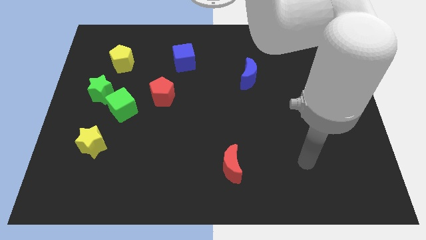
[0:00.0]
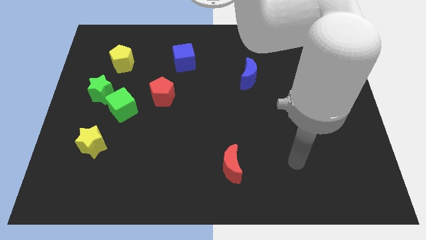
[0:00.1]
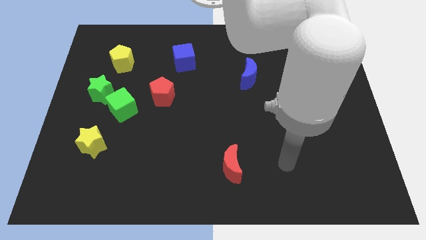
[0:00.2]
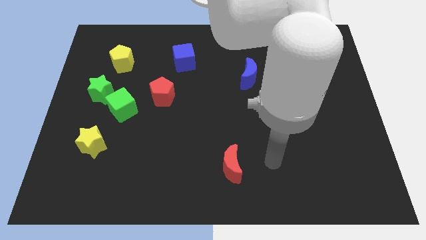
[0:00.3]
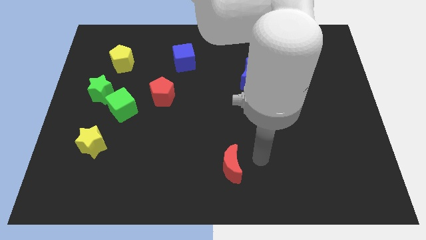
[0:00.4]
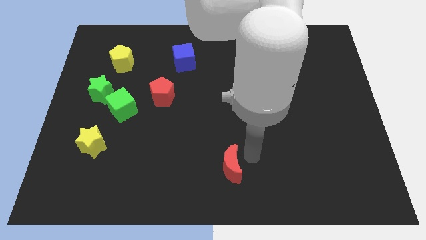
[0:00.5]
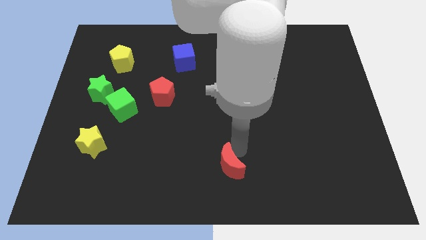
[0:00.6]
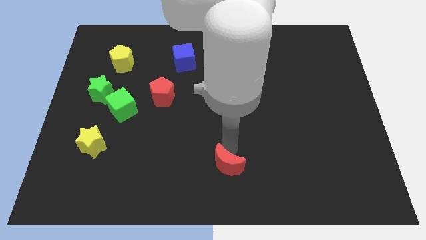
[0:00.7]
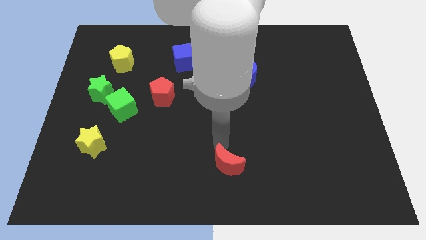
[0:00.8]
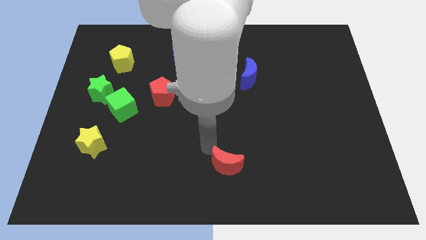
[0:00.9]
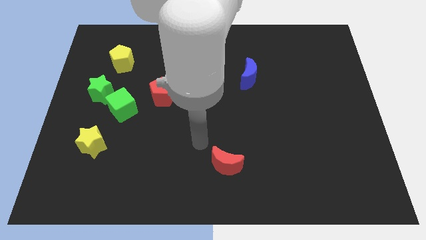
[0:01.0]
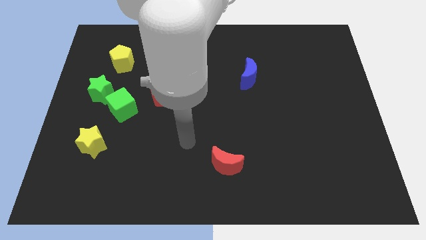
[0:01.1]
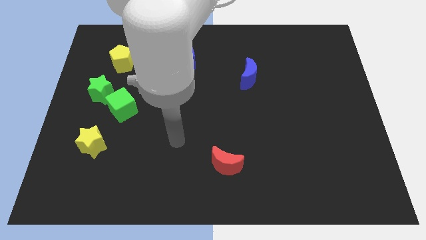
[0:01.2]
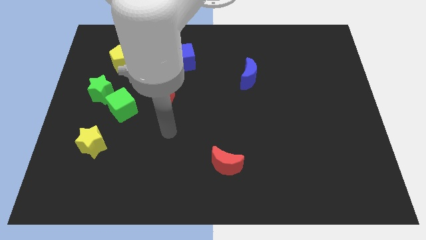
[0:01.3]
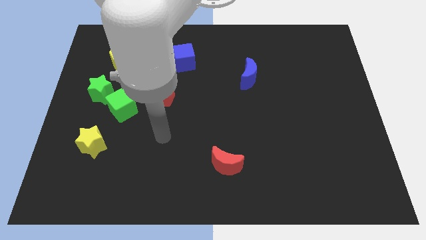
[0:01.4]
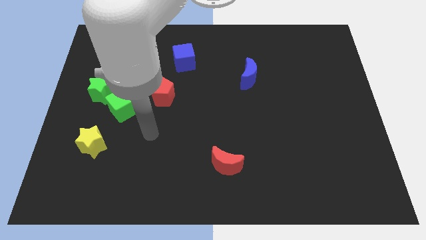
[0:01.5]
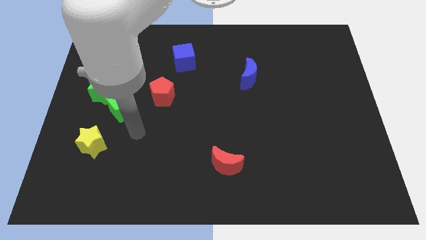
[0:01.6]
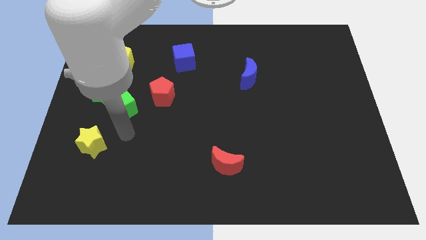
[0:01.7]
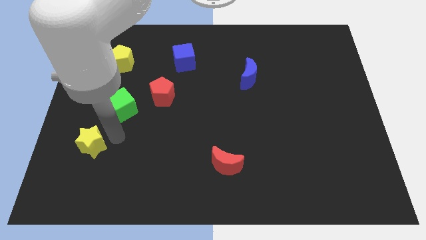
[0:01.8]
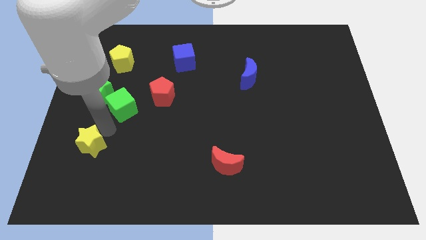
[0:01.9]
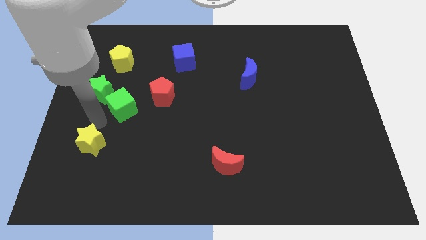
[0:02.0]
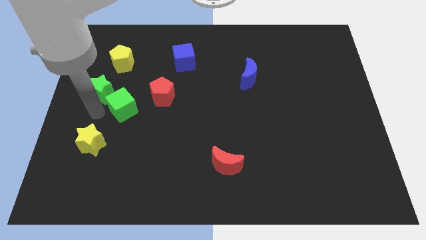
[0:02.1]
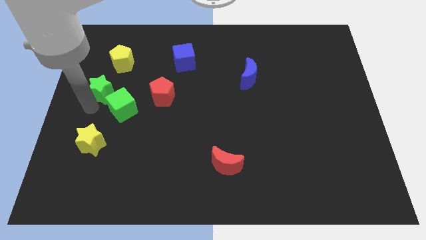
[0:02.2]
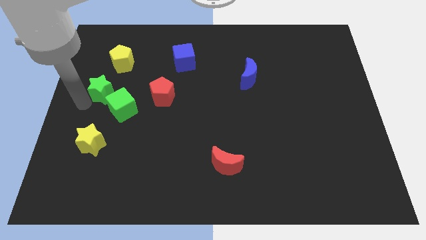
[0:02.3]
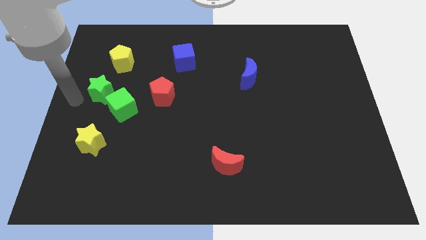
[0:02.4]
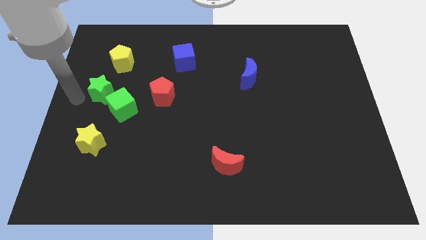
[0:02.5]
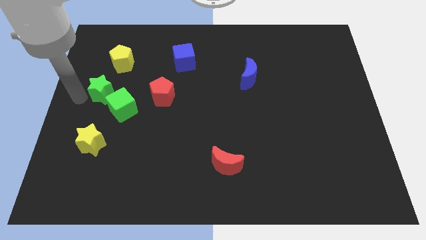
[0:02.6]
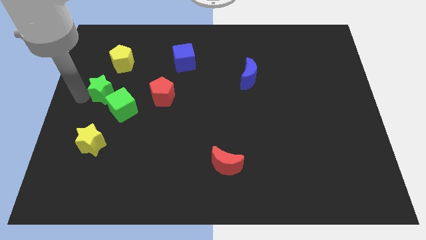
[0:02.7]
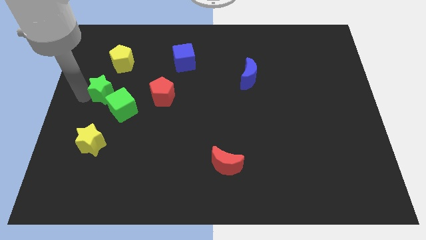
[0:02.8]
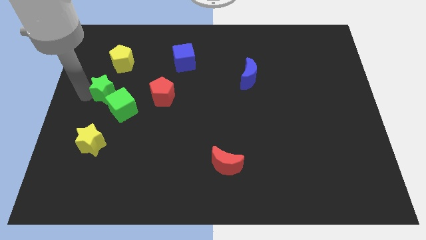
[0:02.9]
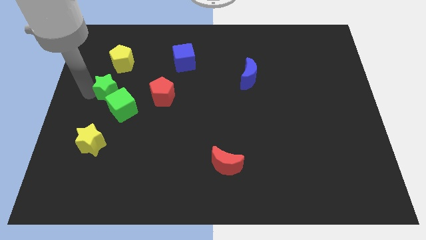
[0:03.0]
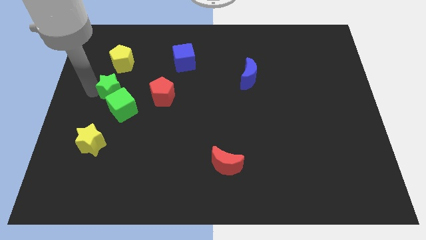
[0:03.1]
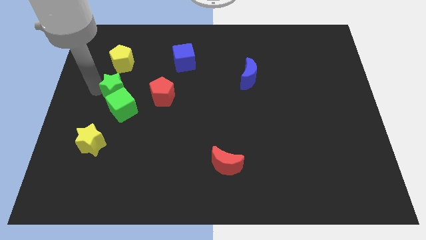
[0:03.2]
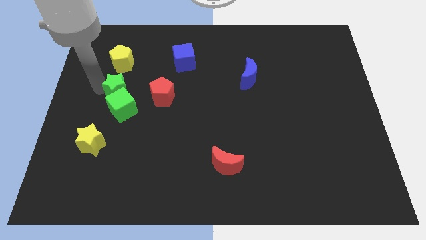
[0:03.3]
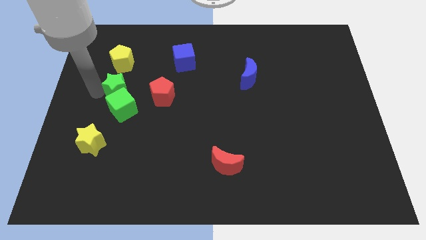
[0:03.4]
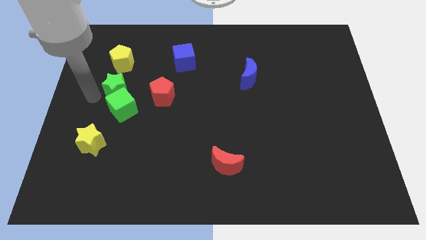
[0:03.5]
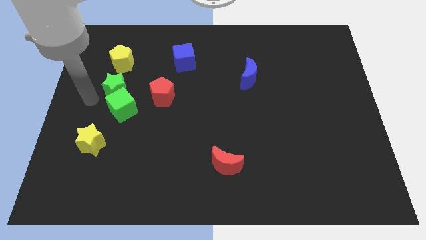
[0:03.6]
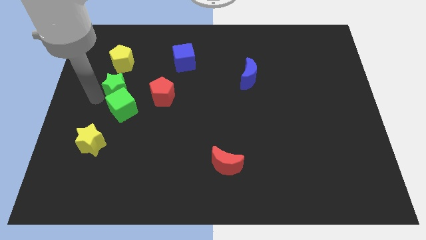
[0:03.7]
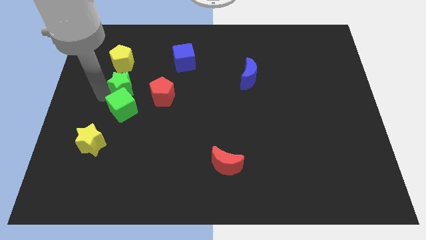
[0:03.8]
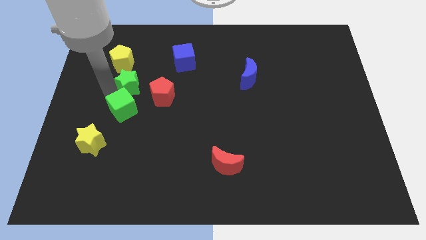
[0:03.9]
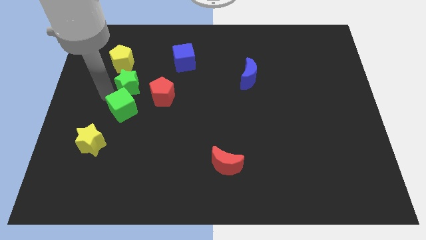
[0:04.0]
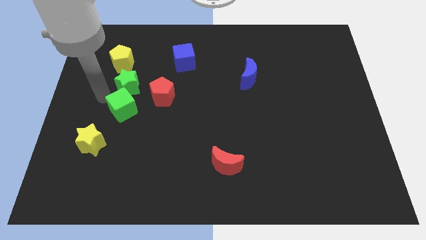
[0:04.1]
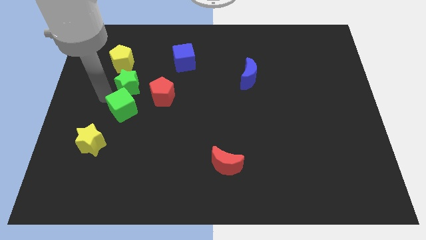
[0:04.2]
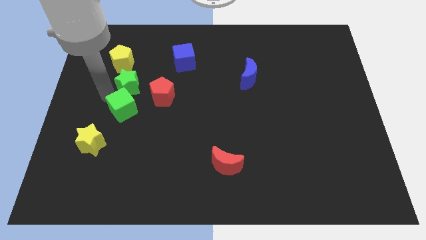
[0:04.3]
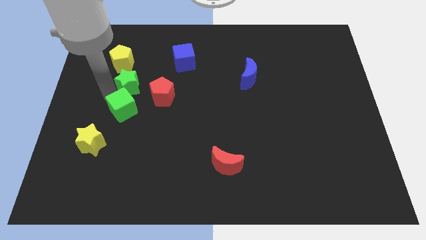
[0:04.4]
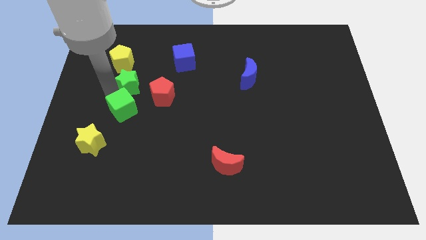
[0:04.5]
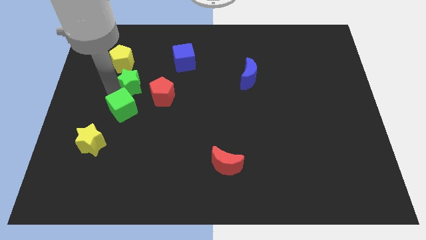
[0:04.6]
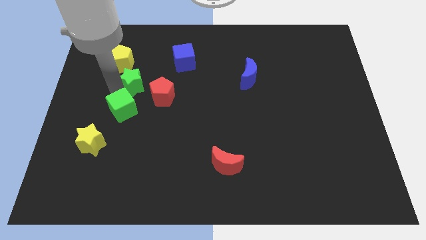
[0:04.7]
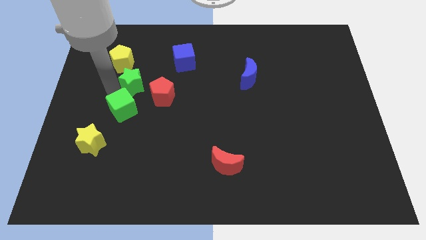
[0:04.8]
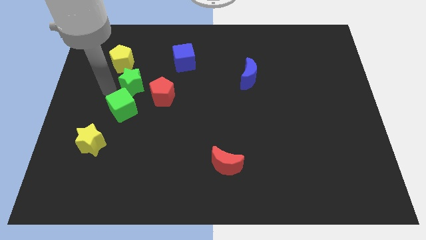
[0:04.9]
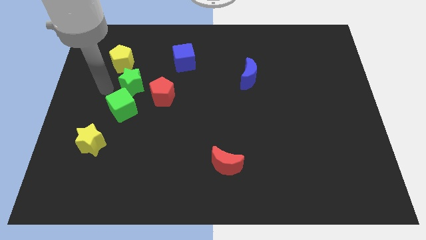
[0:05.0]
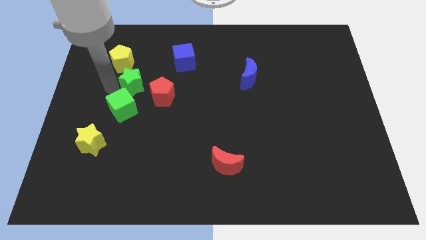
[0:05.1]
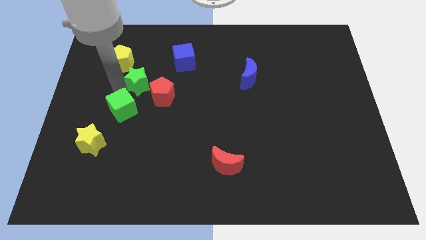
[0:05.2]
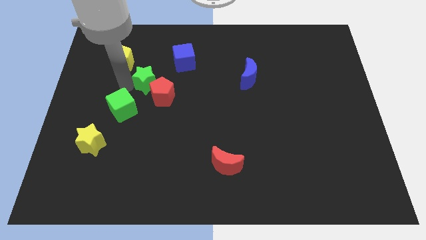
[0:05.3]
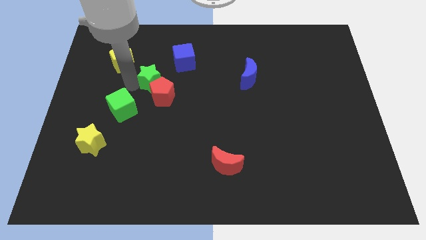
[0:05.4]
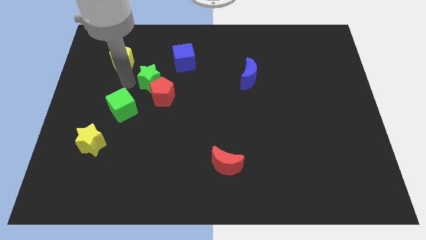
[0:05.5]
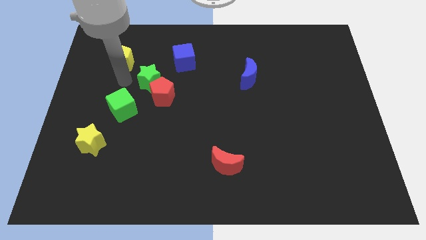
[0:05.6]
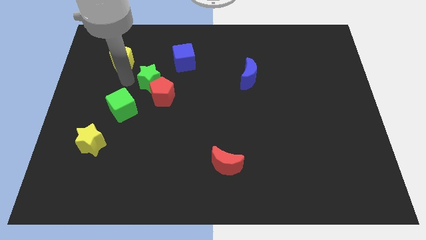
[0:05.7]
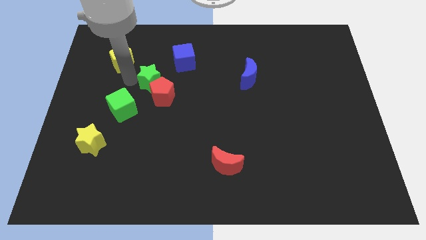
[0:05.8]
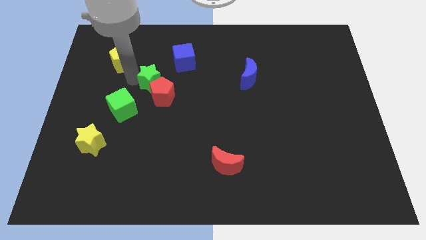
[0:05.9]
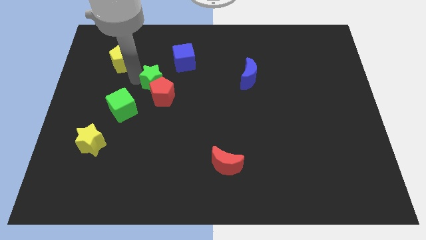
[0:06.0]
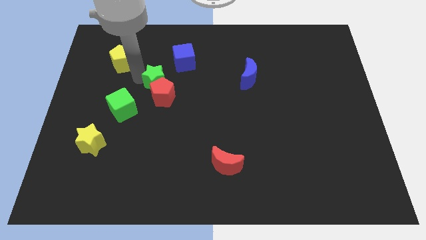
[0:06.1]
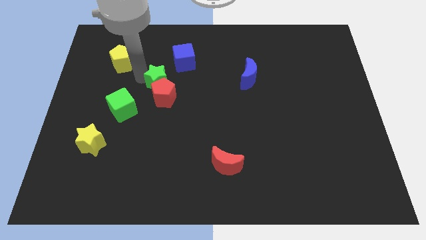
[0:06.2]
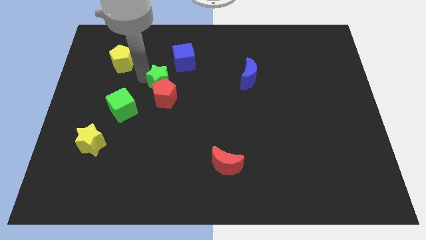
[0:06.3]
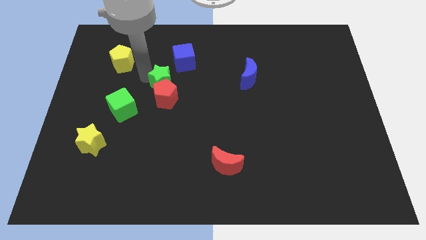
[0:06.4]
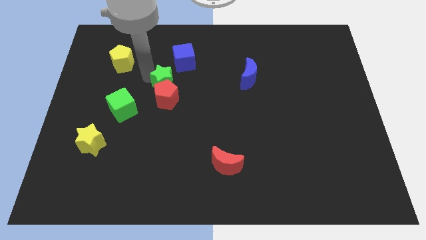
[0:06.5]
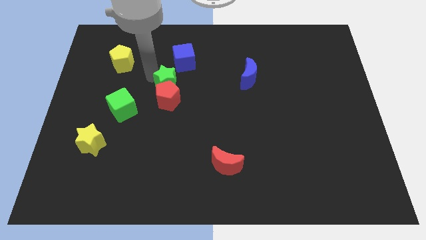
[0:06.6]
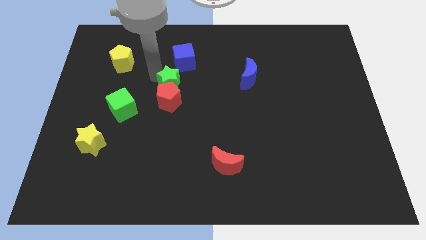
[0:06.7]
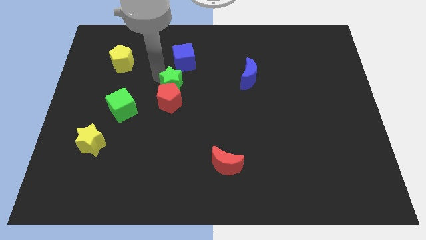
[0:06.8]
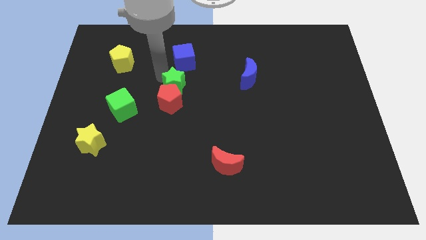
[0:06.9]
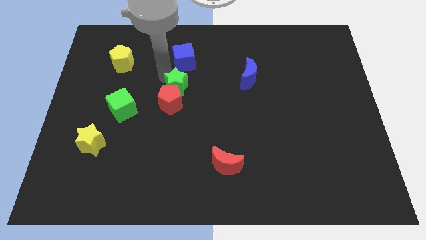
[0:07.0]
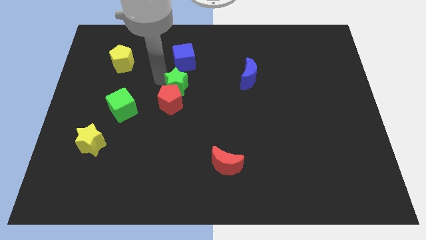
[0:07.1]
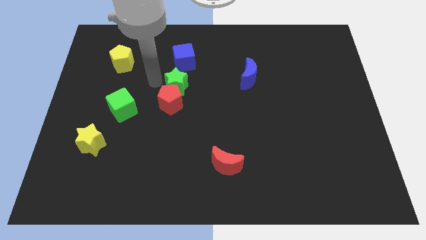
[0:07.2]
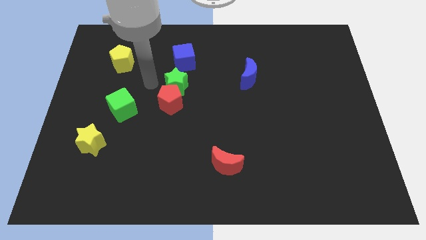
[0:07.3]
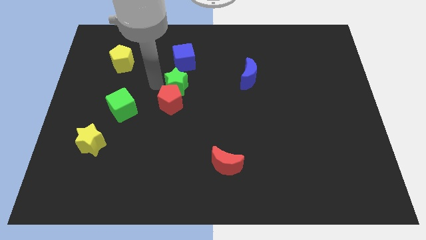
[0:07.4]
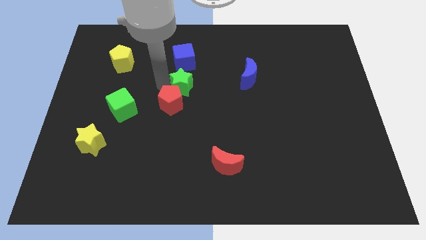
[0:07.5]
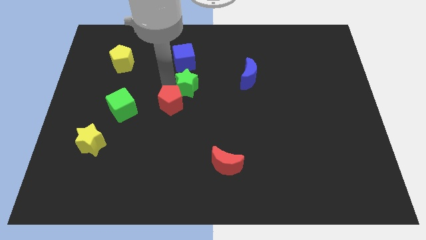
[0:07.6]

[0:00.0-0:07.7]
slide the green star right

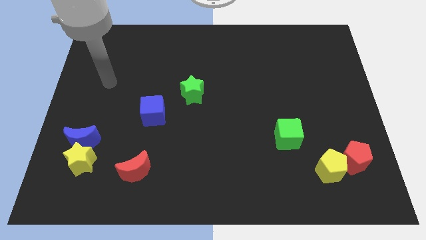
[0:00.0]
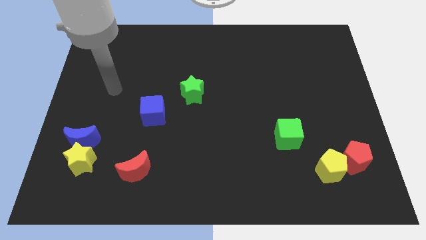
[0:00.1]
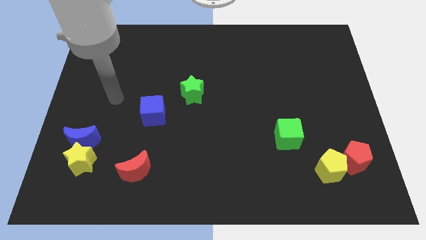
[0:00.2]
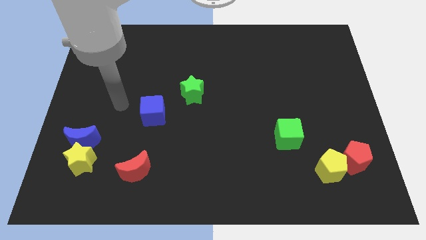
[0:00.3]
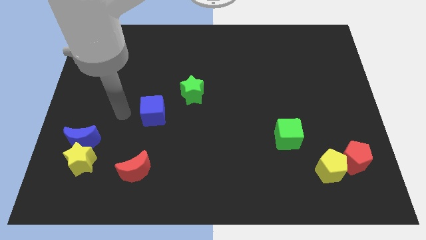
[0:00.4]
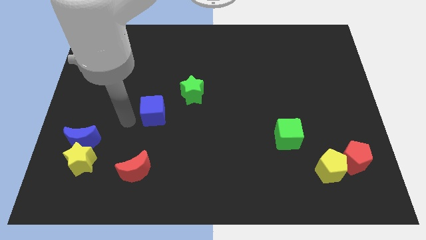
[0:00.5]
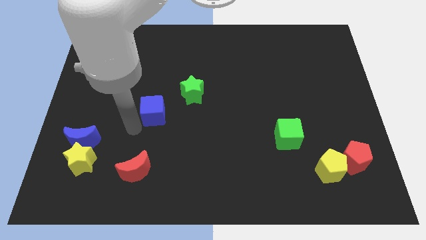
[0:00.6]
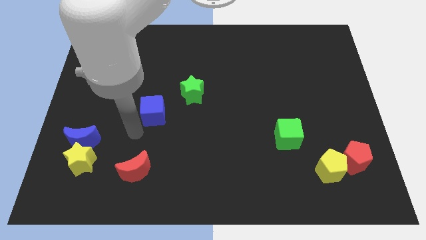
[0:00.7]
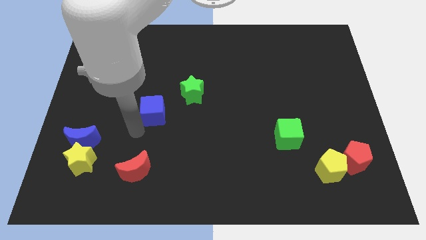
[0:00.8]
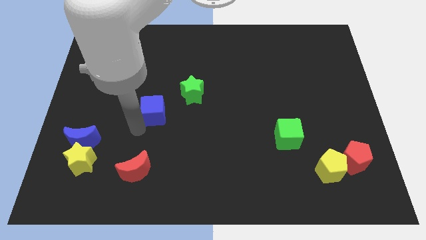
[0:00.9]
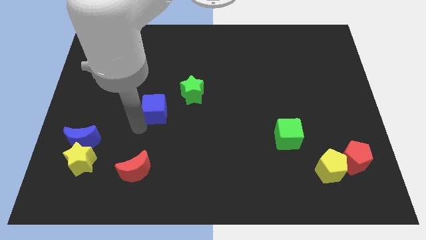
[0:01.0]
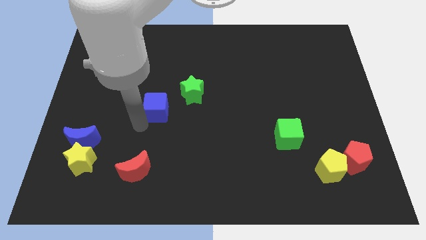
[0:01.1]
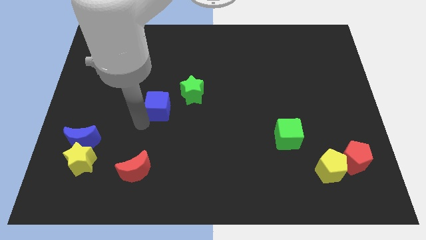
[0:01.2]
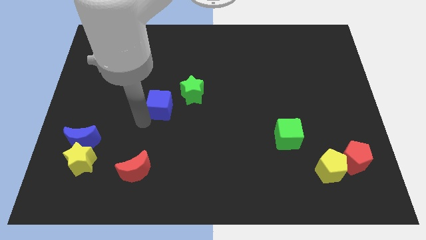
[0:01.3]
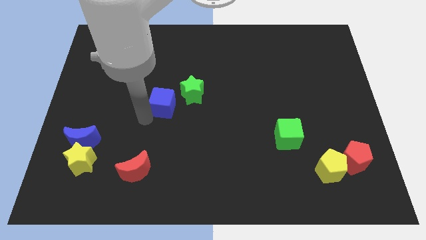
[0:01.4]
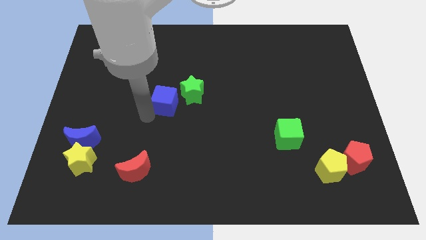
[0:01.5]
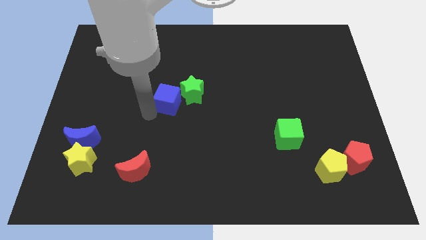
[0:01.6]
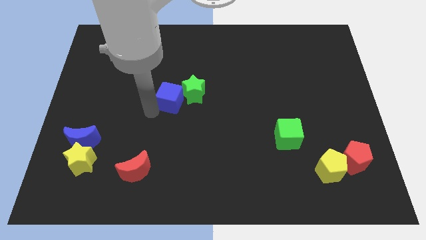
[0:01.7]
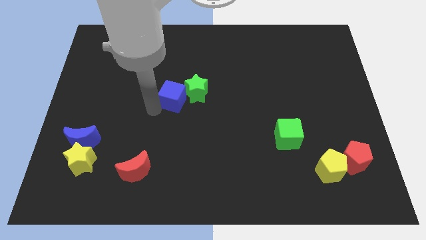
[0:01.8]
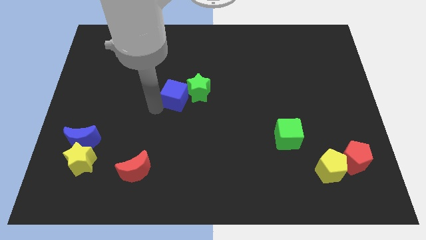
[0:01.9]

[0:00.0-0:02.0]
push the blue cube up and then to the right slightly
